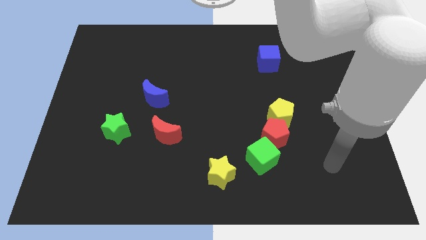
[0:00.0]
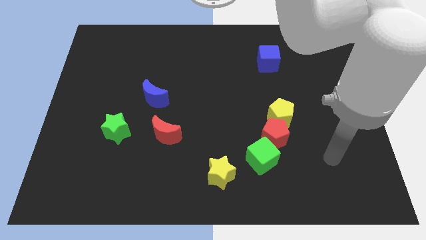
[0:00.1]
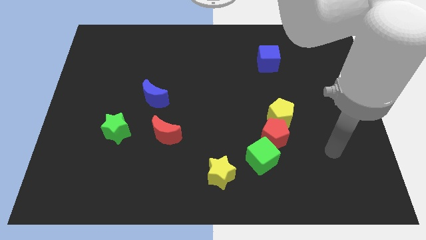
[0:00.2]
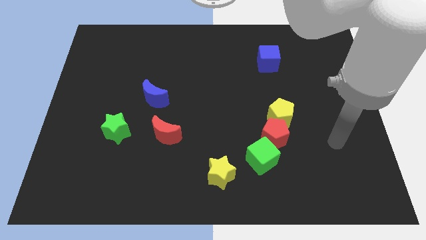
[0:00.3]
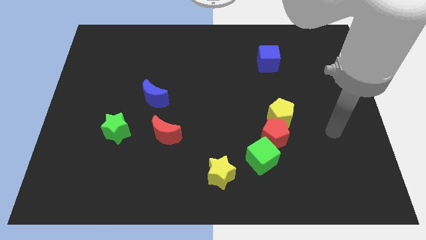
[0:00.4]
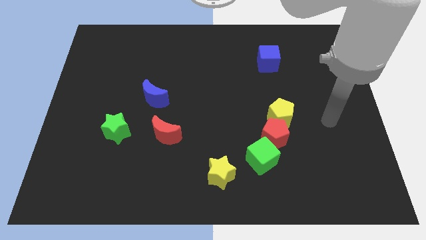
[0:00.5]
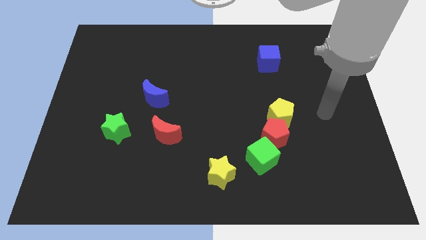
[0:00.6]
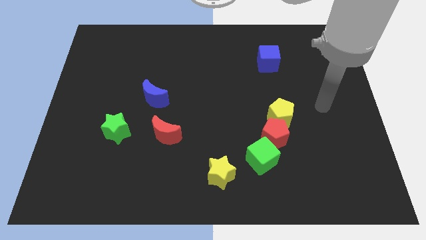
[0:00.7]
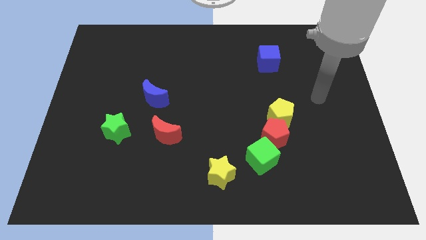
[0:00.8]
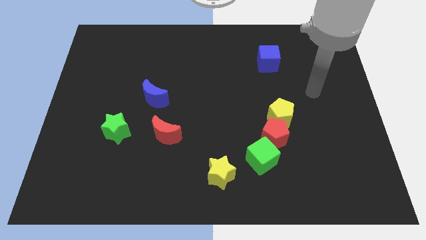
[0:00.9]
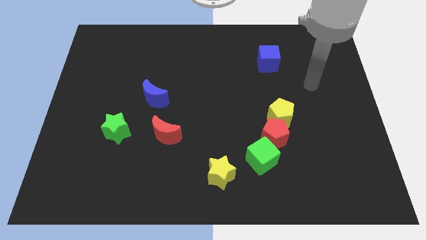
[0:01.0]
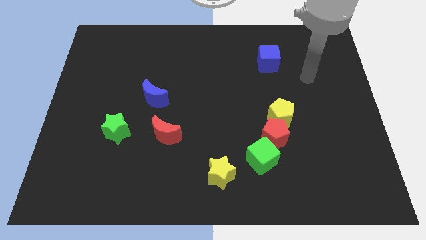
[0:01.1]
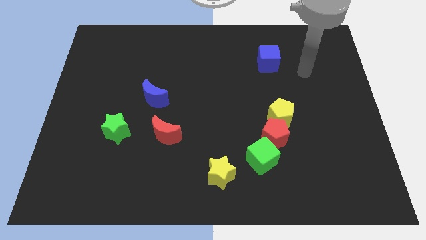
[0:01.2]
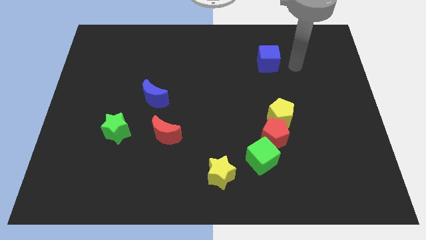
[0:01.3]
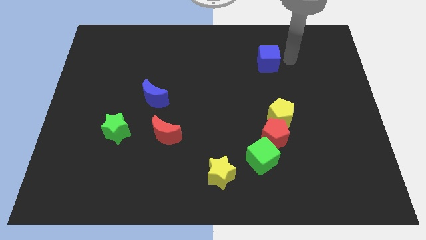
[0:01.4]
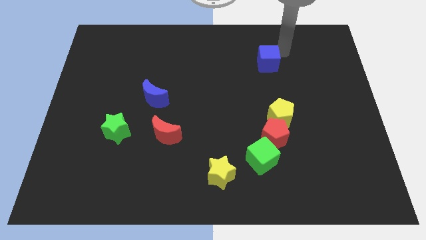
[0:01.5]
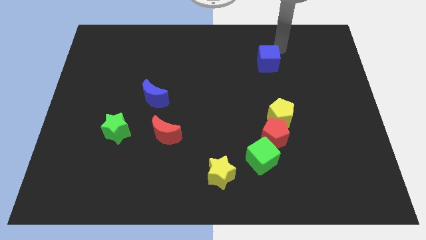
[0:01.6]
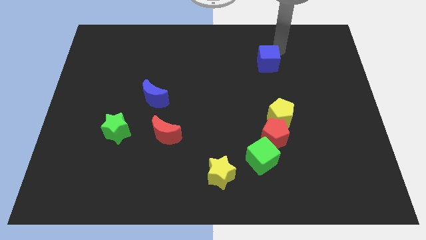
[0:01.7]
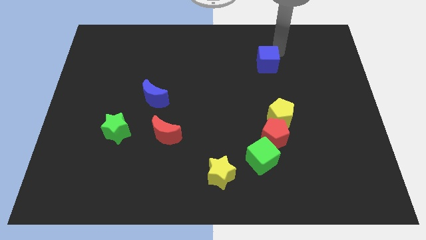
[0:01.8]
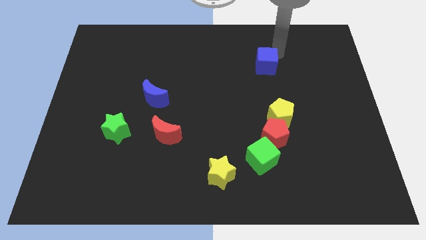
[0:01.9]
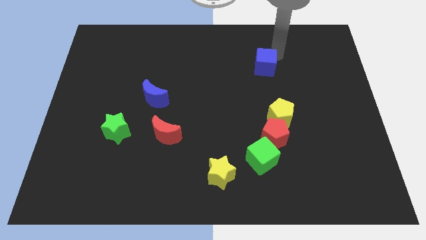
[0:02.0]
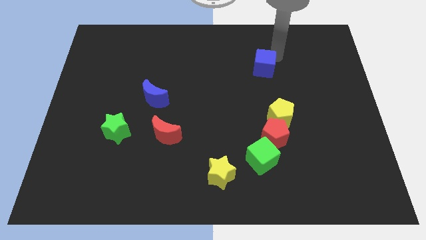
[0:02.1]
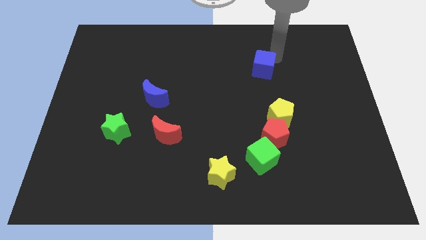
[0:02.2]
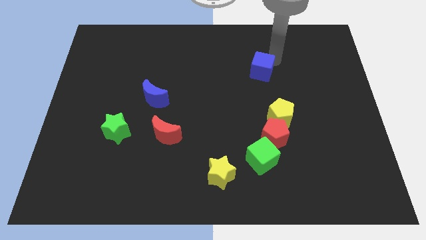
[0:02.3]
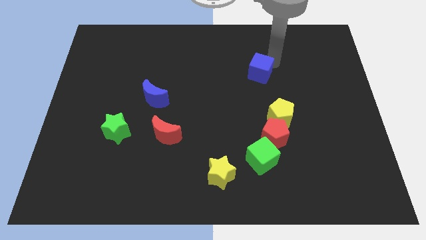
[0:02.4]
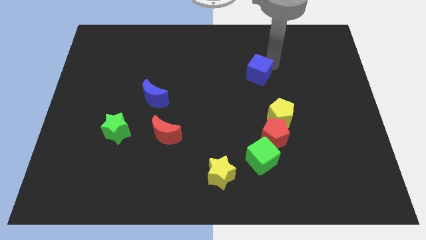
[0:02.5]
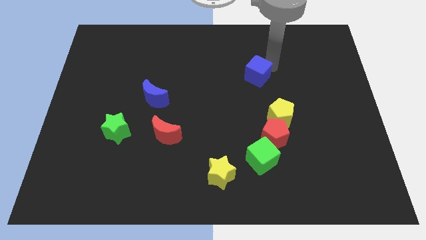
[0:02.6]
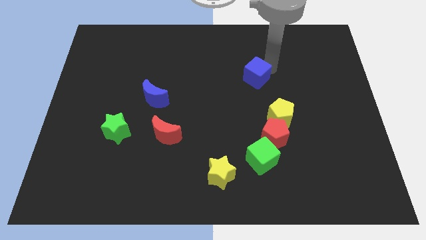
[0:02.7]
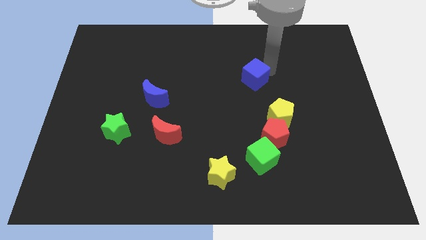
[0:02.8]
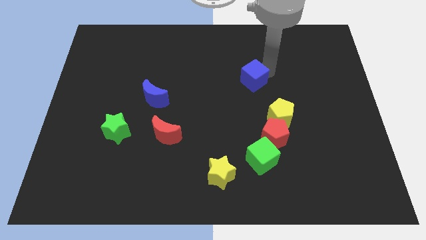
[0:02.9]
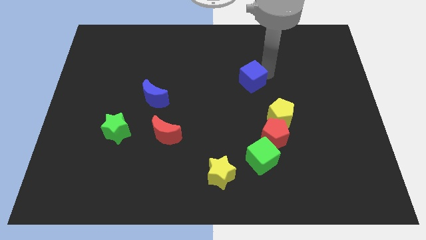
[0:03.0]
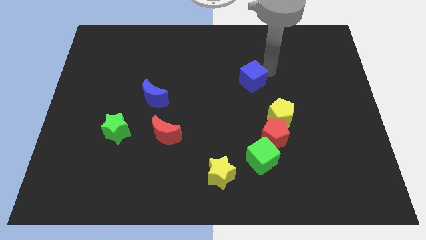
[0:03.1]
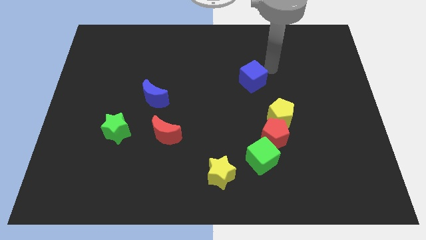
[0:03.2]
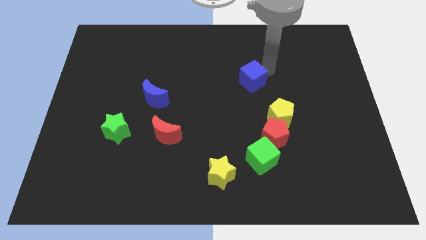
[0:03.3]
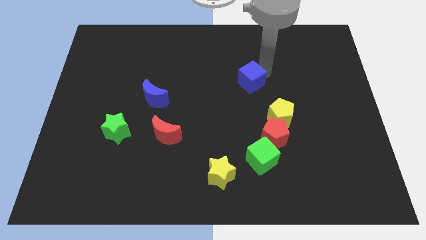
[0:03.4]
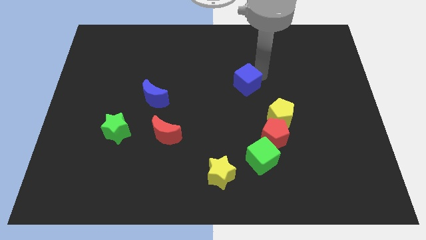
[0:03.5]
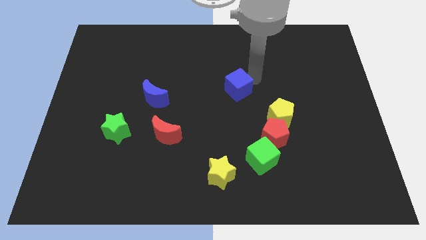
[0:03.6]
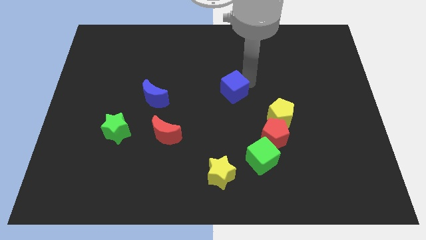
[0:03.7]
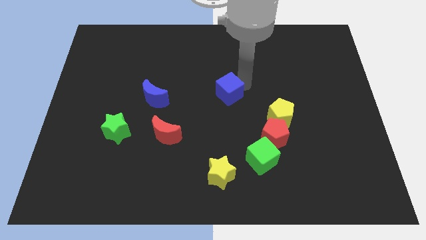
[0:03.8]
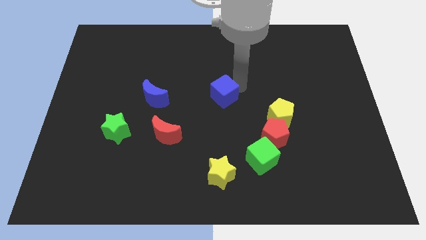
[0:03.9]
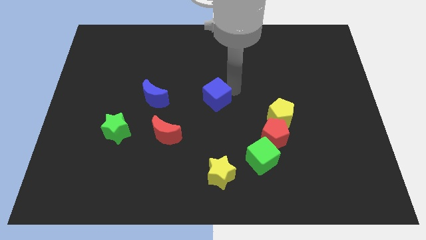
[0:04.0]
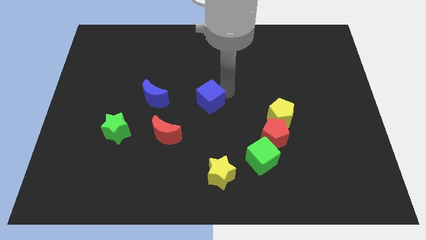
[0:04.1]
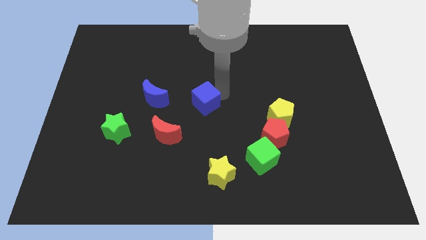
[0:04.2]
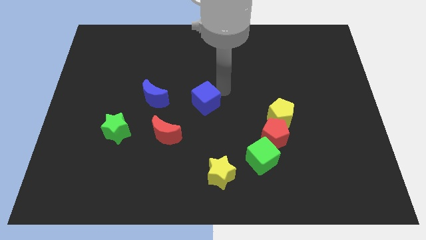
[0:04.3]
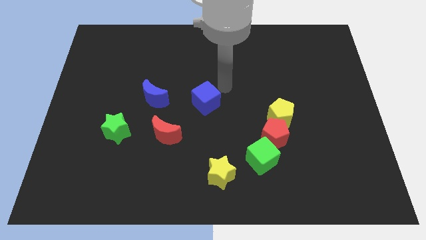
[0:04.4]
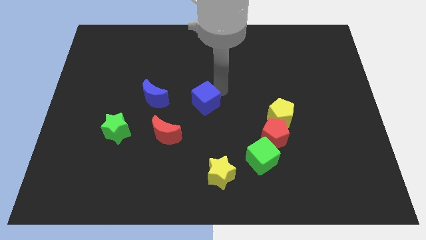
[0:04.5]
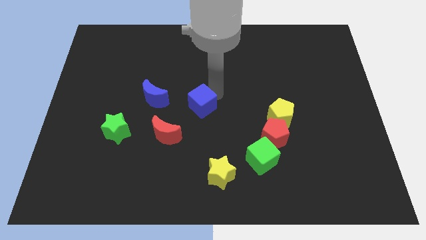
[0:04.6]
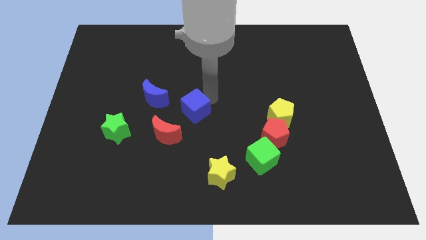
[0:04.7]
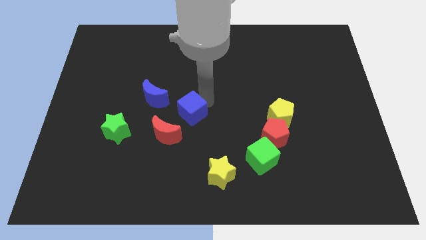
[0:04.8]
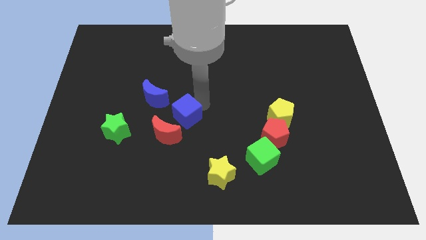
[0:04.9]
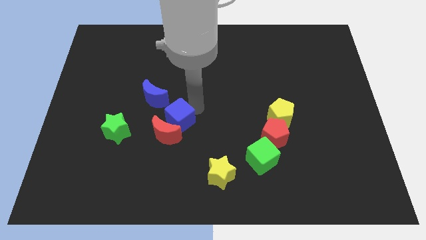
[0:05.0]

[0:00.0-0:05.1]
push the blue cube towards the red moon

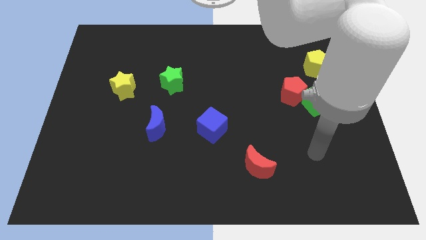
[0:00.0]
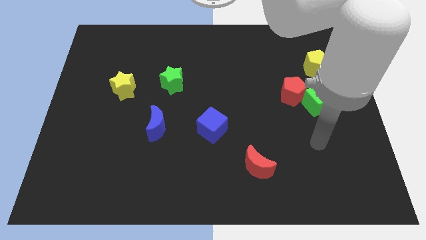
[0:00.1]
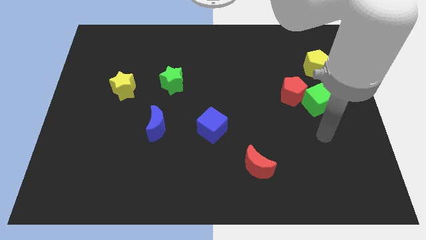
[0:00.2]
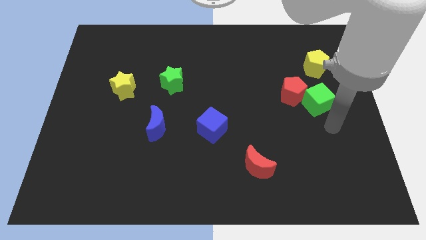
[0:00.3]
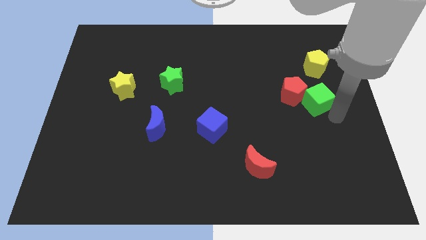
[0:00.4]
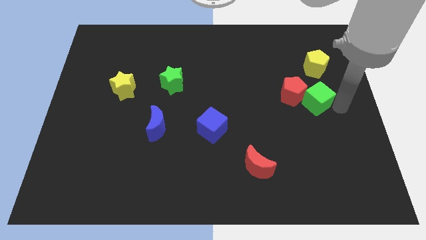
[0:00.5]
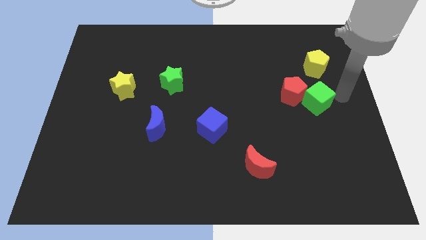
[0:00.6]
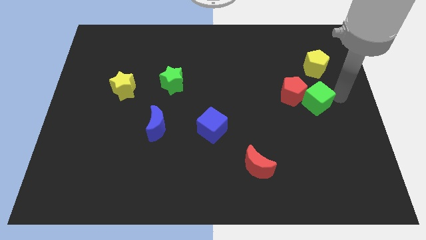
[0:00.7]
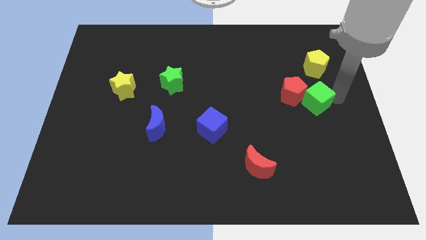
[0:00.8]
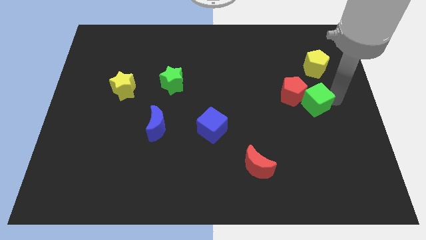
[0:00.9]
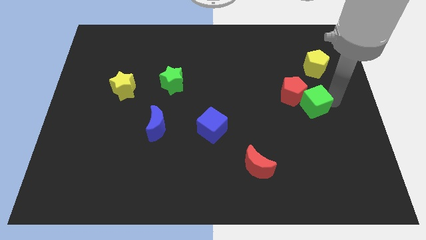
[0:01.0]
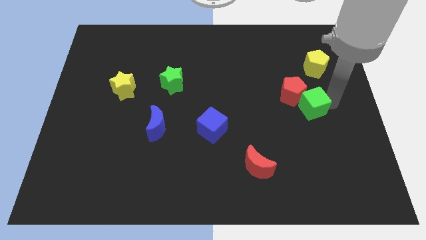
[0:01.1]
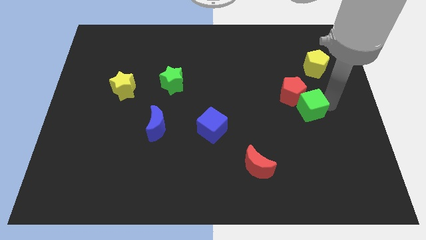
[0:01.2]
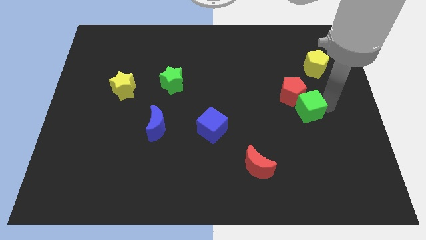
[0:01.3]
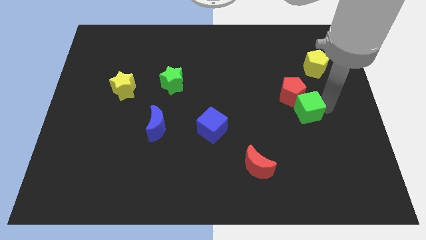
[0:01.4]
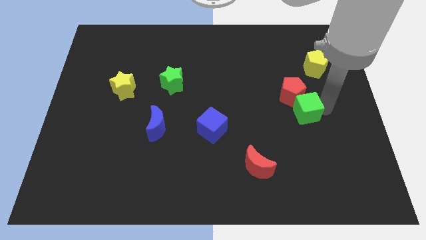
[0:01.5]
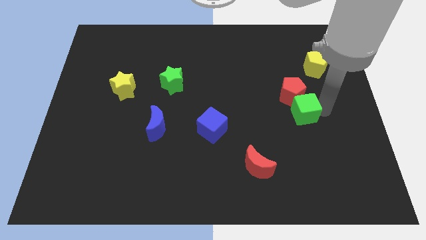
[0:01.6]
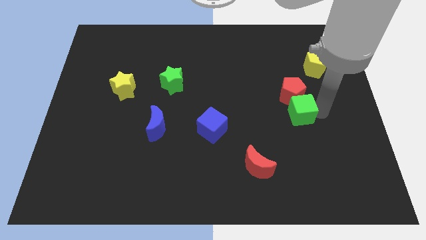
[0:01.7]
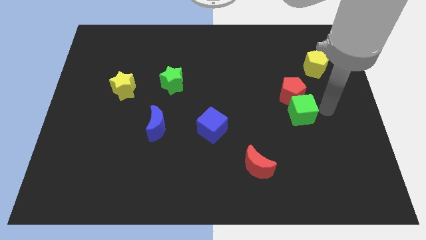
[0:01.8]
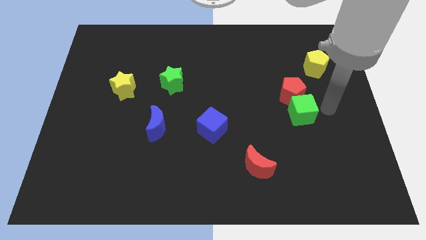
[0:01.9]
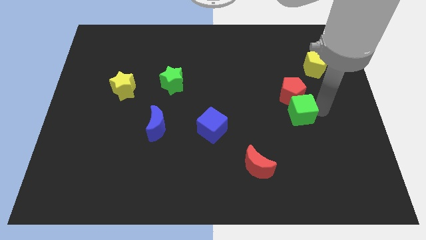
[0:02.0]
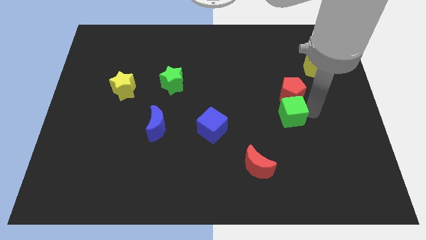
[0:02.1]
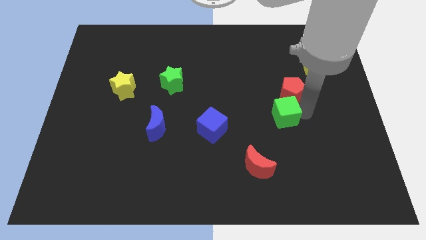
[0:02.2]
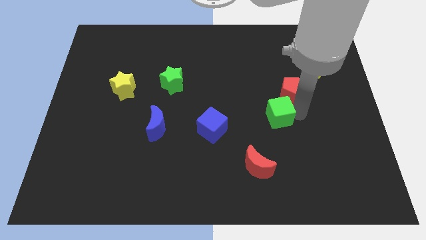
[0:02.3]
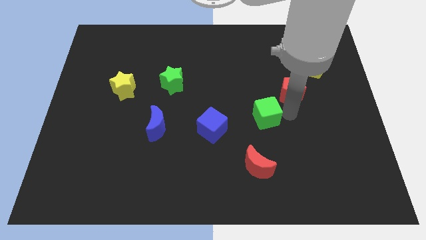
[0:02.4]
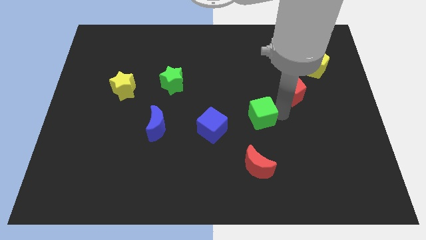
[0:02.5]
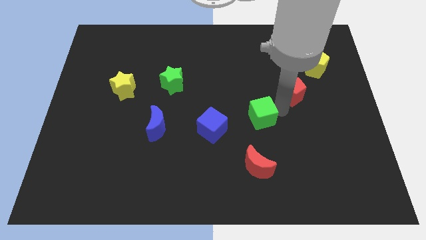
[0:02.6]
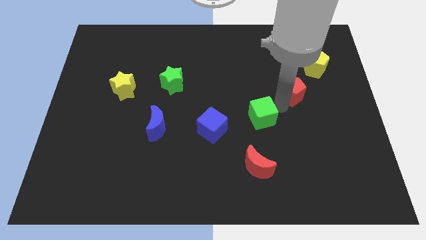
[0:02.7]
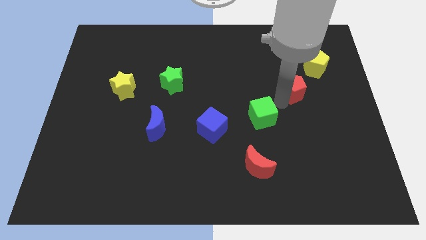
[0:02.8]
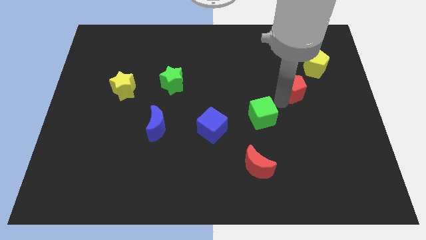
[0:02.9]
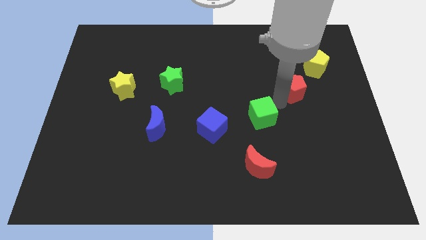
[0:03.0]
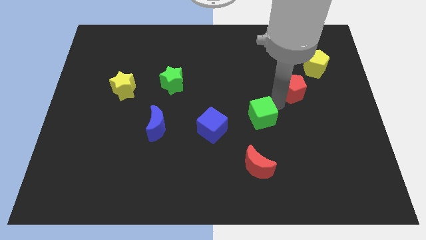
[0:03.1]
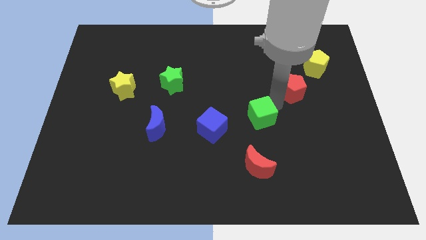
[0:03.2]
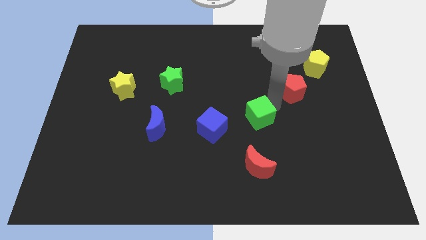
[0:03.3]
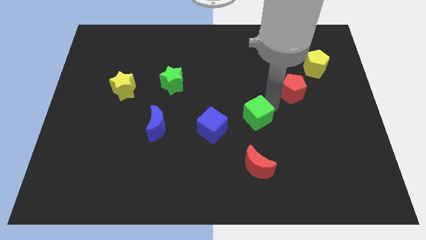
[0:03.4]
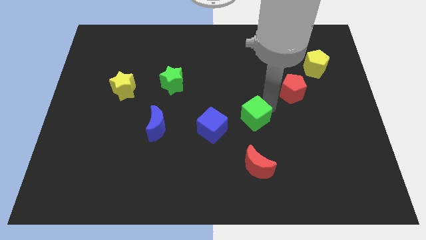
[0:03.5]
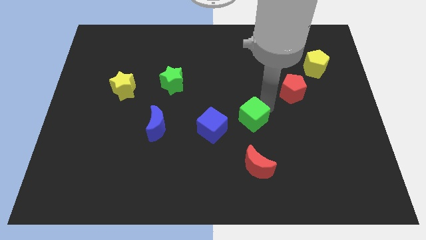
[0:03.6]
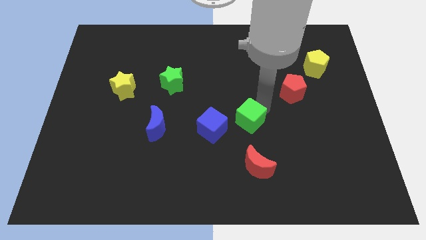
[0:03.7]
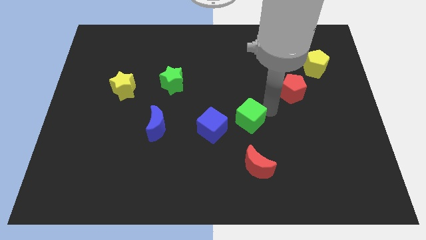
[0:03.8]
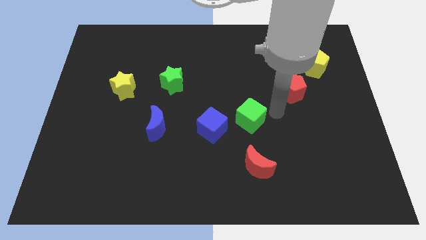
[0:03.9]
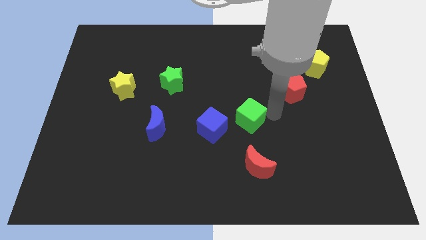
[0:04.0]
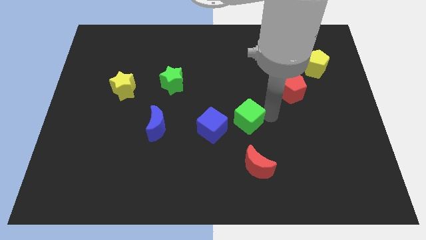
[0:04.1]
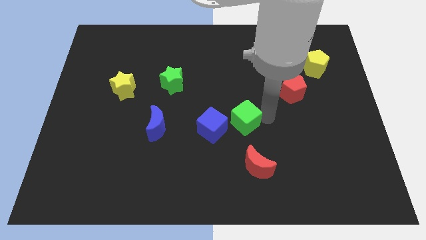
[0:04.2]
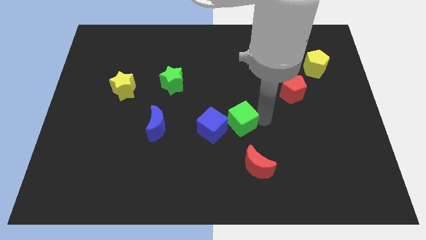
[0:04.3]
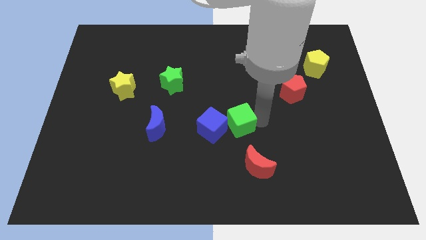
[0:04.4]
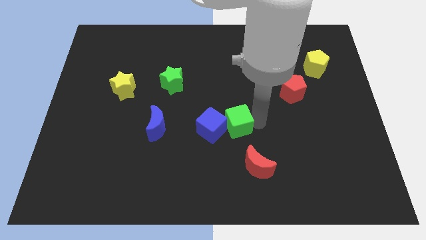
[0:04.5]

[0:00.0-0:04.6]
move the green cube close to the blue cube
